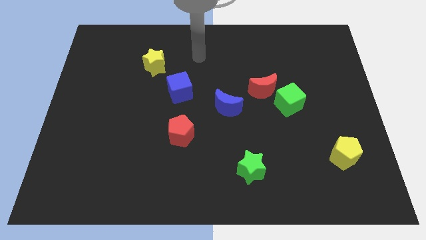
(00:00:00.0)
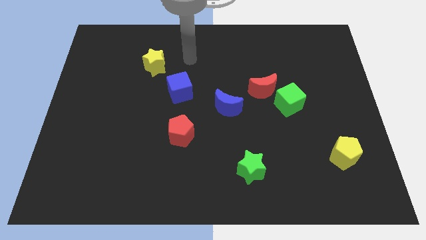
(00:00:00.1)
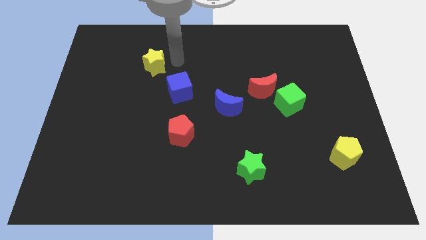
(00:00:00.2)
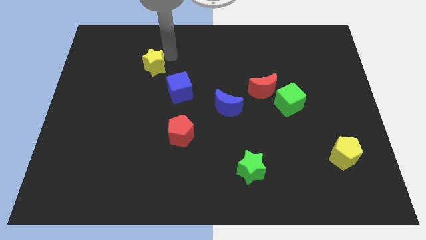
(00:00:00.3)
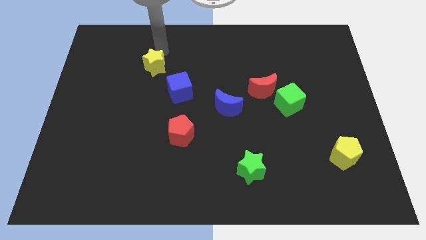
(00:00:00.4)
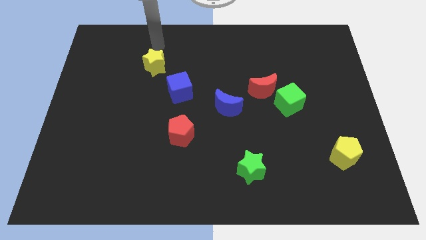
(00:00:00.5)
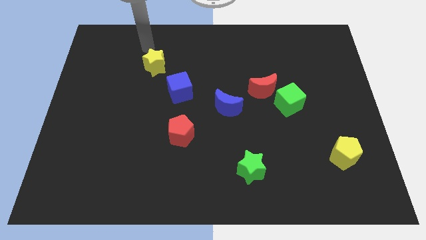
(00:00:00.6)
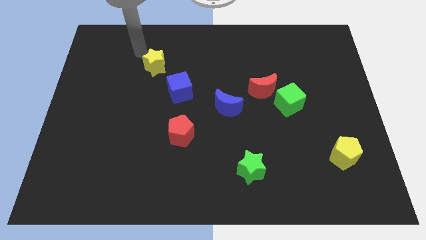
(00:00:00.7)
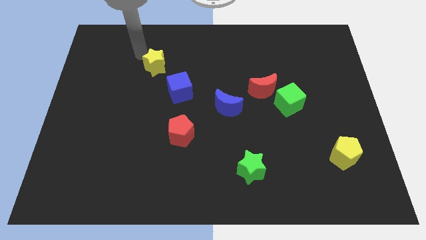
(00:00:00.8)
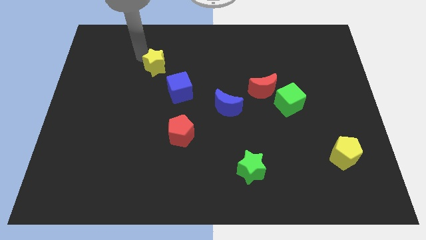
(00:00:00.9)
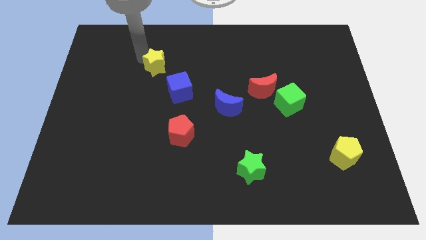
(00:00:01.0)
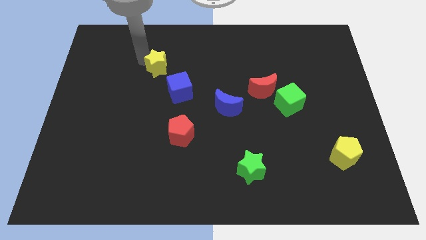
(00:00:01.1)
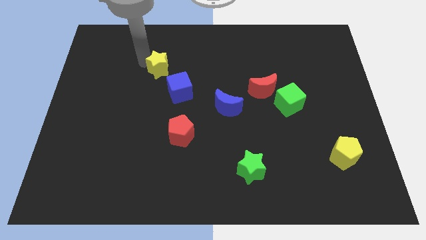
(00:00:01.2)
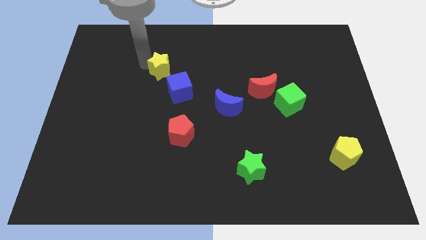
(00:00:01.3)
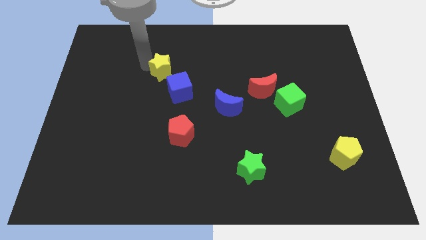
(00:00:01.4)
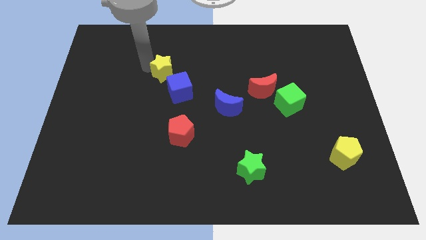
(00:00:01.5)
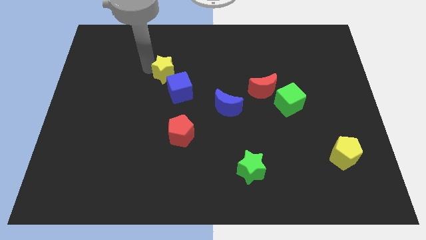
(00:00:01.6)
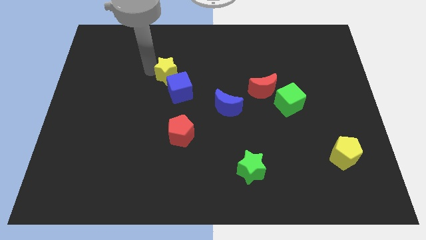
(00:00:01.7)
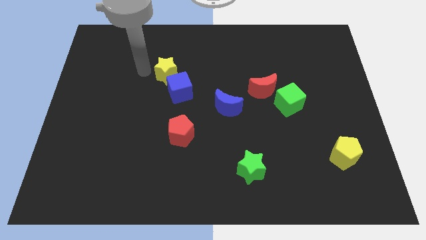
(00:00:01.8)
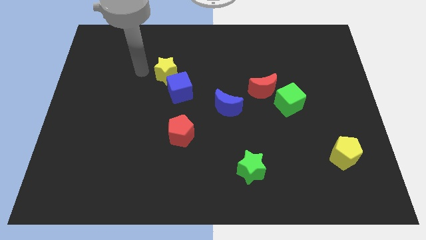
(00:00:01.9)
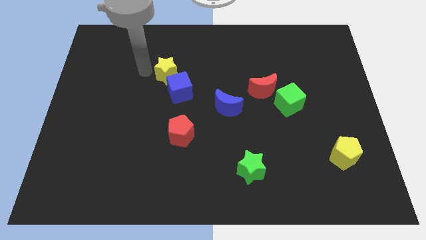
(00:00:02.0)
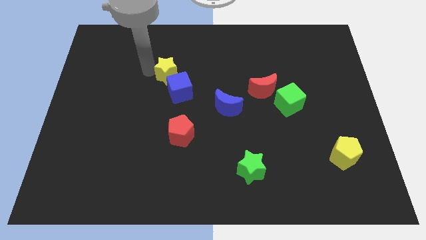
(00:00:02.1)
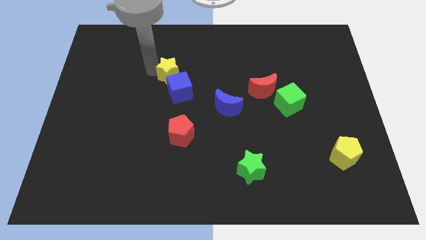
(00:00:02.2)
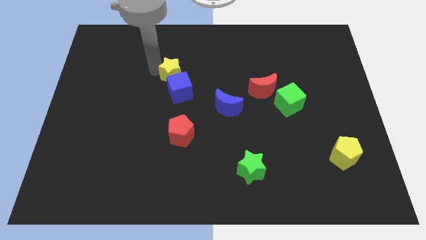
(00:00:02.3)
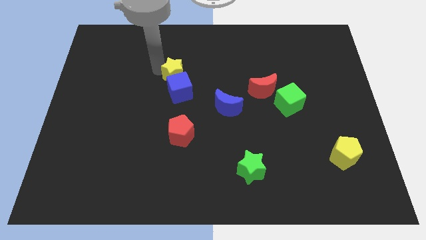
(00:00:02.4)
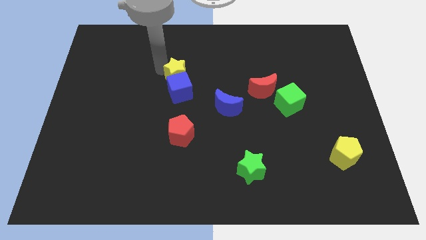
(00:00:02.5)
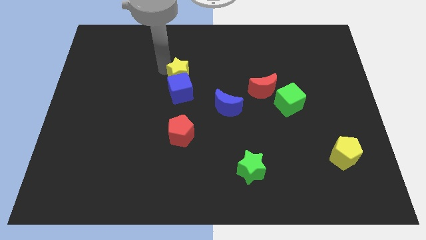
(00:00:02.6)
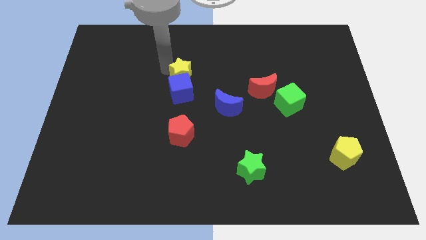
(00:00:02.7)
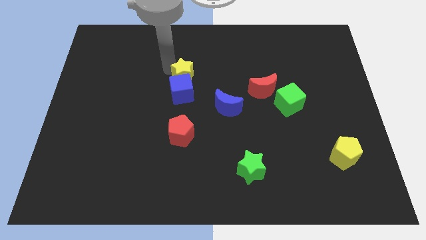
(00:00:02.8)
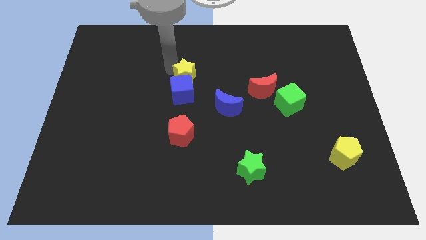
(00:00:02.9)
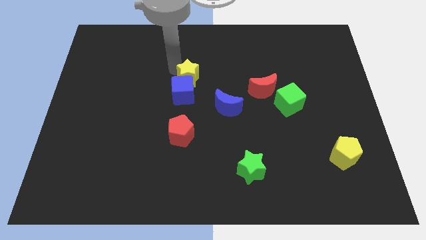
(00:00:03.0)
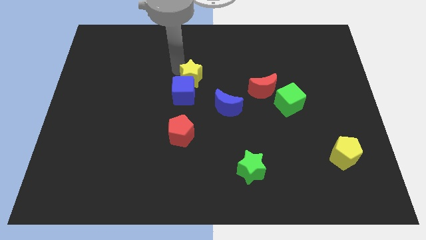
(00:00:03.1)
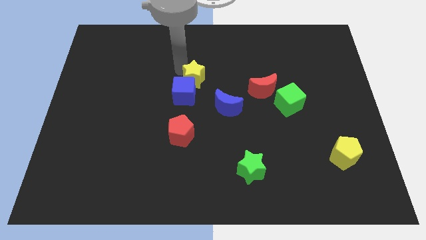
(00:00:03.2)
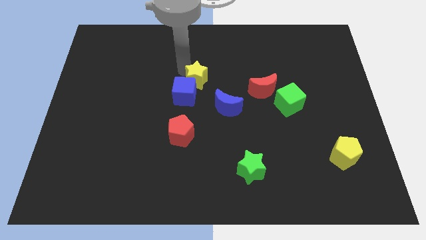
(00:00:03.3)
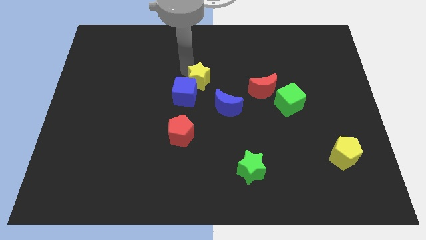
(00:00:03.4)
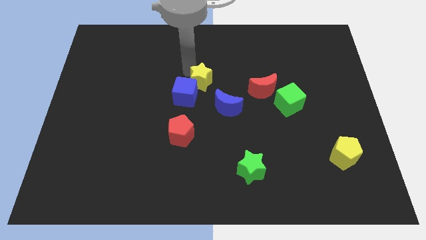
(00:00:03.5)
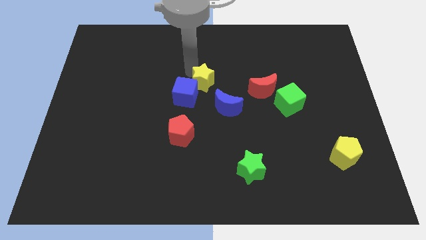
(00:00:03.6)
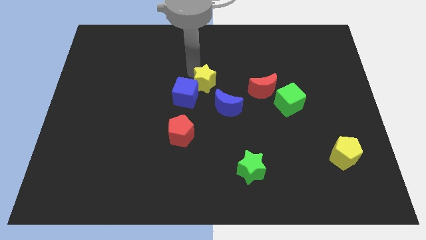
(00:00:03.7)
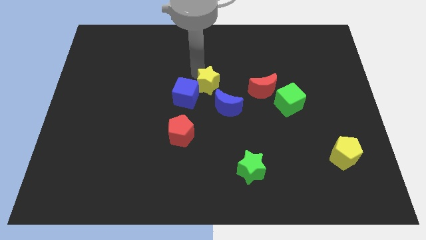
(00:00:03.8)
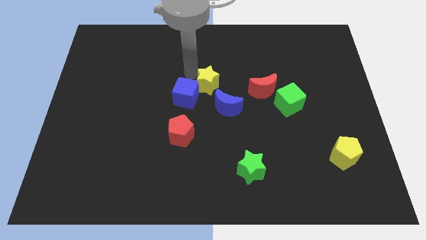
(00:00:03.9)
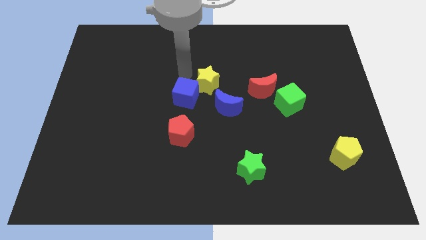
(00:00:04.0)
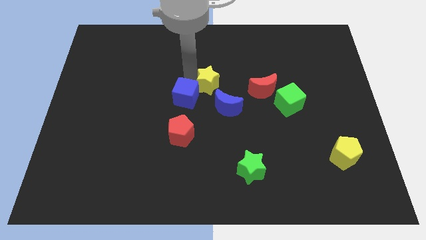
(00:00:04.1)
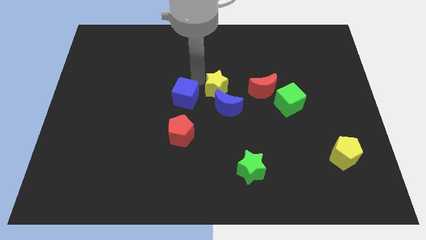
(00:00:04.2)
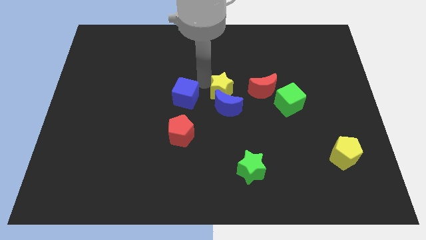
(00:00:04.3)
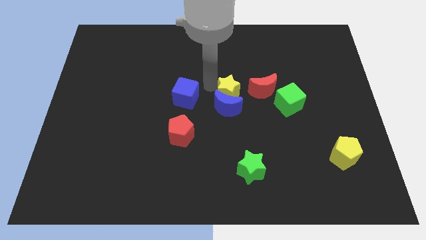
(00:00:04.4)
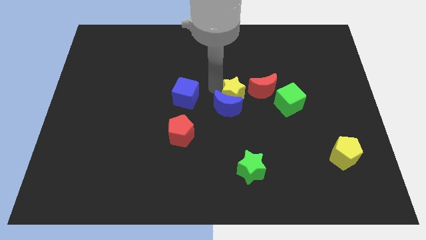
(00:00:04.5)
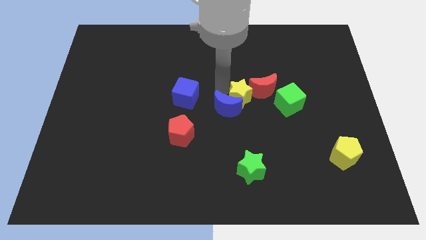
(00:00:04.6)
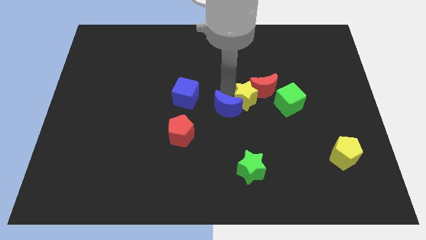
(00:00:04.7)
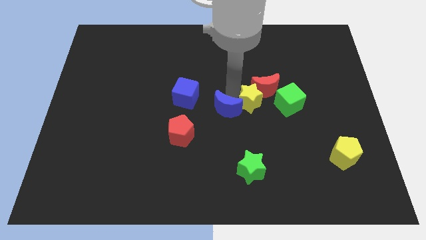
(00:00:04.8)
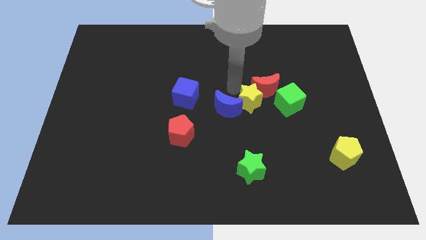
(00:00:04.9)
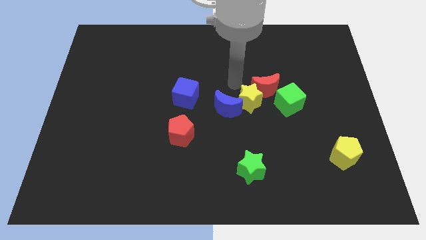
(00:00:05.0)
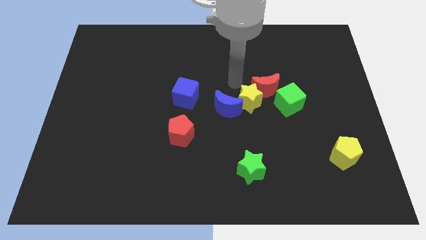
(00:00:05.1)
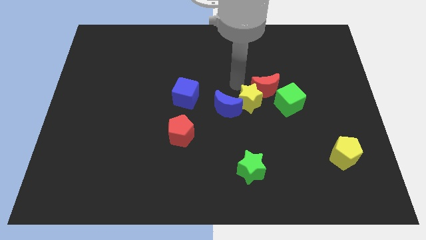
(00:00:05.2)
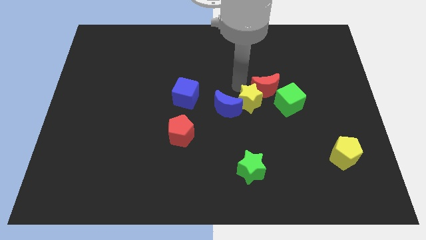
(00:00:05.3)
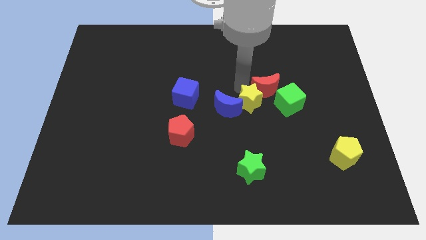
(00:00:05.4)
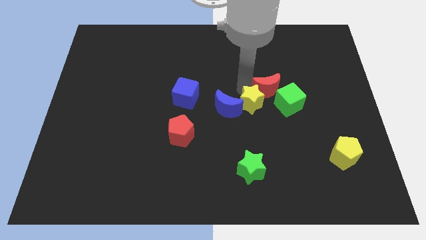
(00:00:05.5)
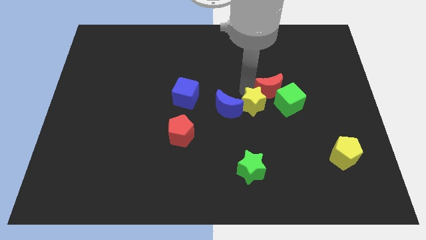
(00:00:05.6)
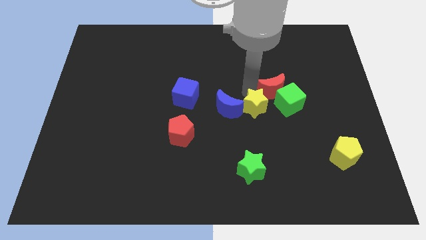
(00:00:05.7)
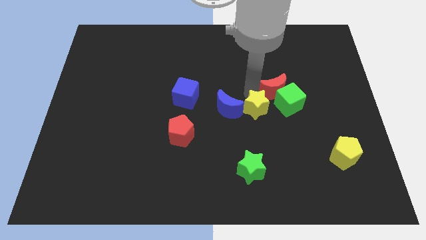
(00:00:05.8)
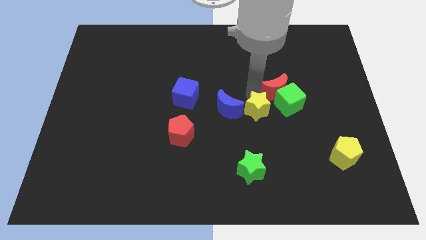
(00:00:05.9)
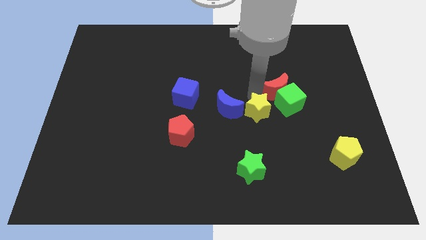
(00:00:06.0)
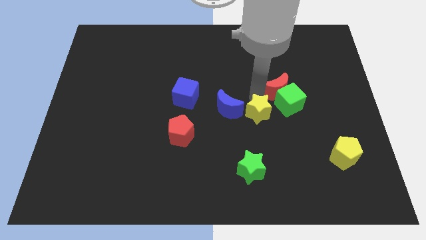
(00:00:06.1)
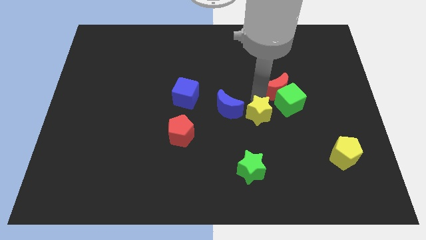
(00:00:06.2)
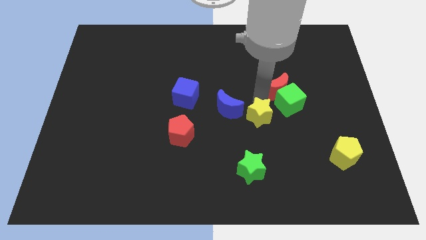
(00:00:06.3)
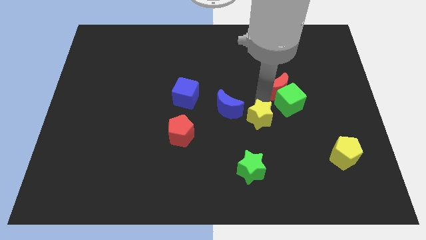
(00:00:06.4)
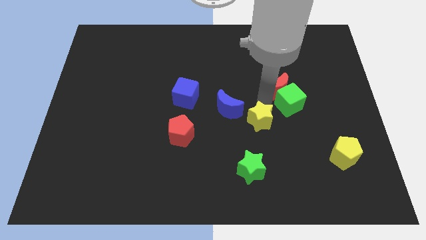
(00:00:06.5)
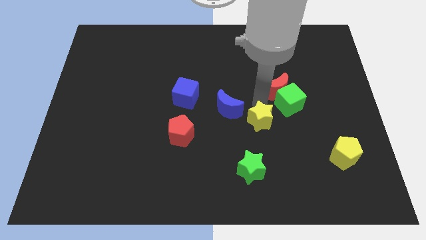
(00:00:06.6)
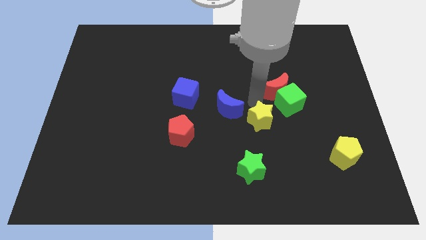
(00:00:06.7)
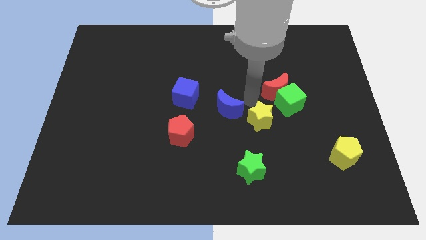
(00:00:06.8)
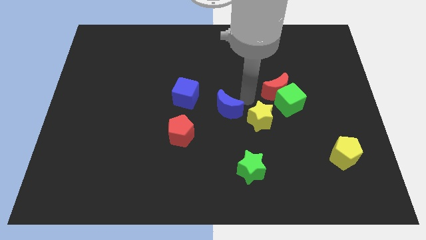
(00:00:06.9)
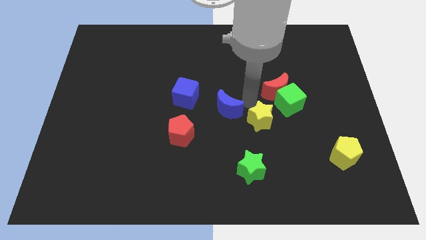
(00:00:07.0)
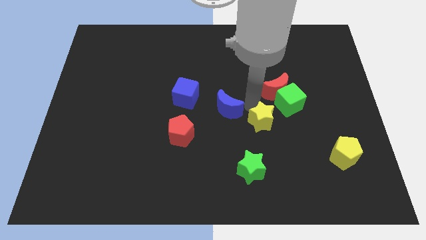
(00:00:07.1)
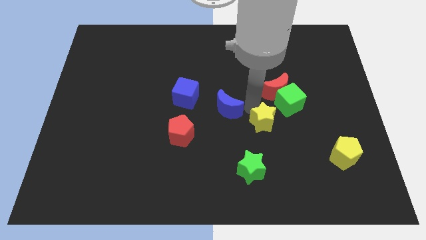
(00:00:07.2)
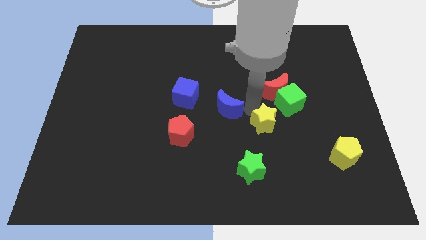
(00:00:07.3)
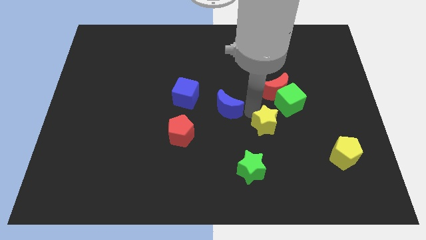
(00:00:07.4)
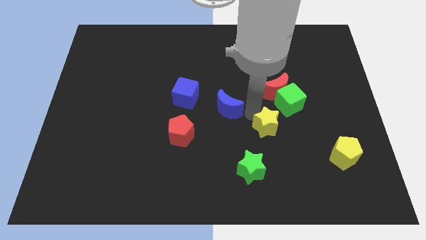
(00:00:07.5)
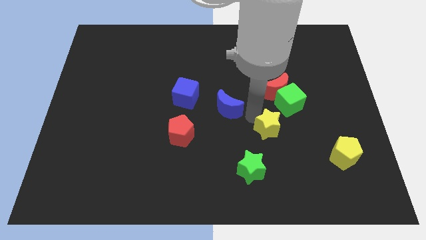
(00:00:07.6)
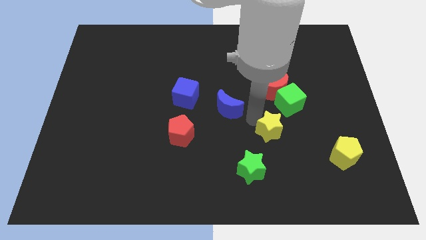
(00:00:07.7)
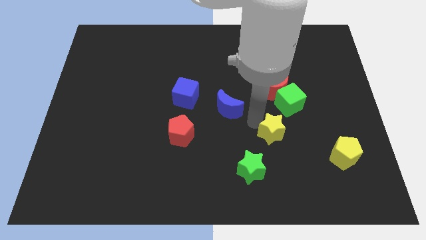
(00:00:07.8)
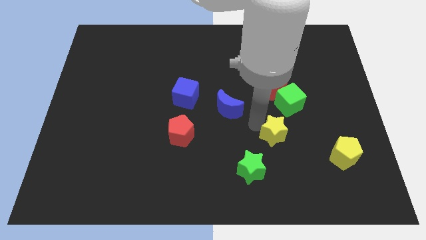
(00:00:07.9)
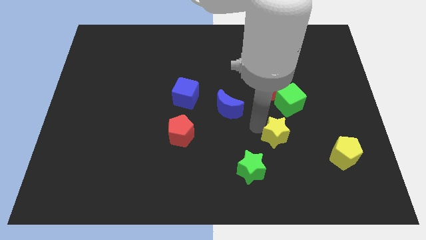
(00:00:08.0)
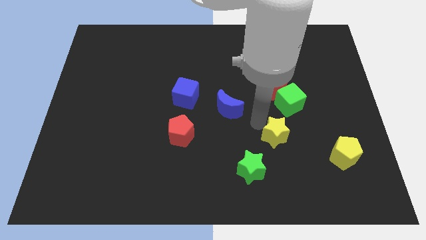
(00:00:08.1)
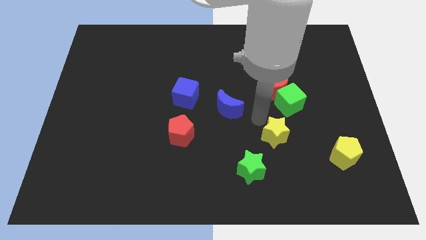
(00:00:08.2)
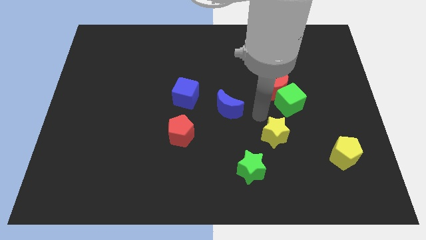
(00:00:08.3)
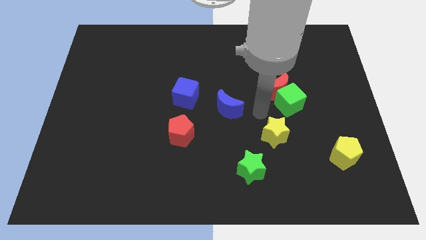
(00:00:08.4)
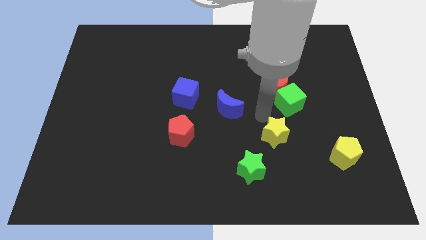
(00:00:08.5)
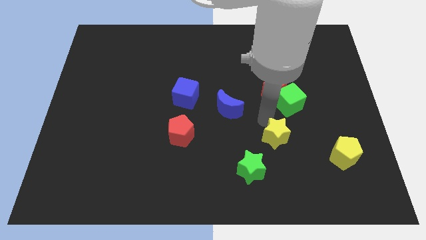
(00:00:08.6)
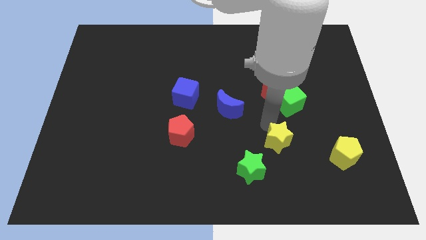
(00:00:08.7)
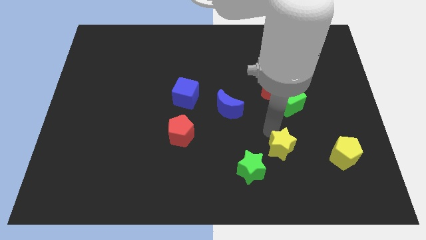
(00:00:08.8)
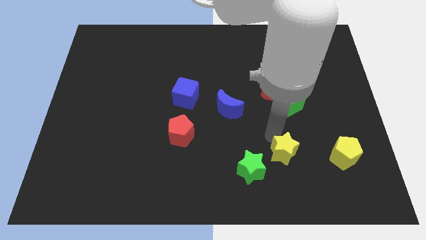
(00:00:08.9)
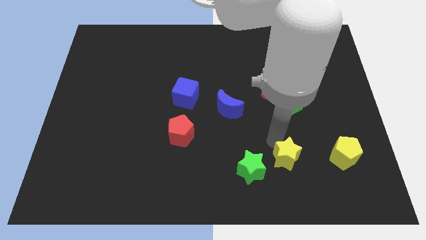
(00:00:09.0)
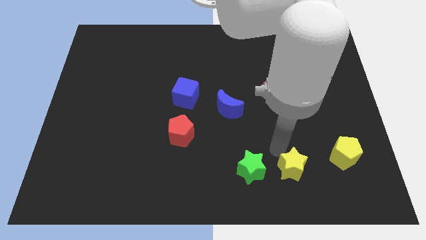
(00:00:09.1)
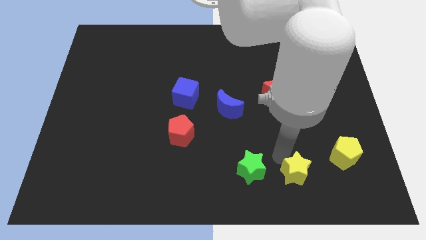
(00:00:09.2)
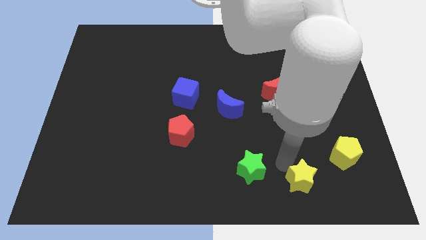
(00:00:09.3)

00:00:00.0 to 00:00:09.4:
put the yellow star diagonally down and to the left of the yellow pentagon
